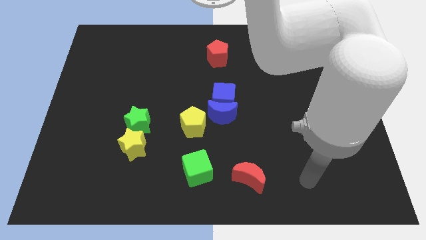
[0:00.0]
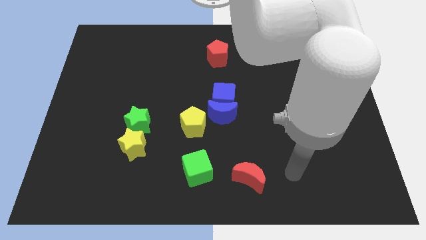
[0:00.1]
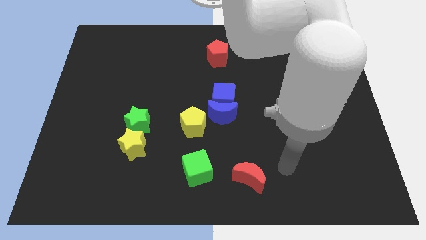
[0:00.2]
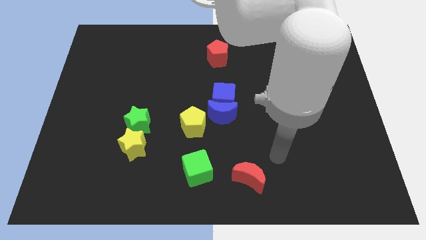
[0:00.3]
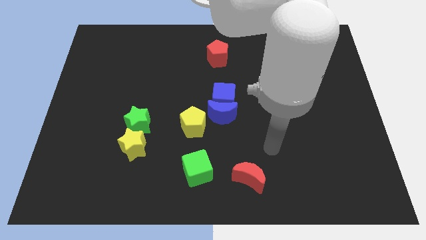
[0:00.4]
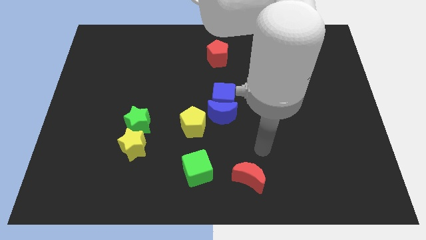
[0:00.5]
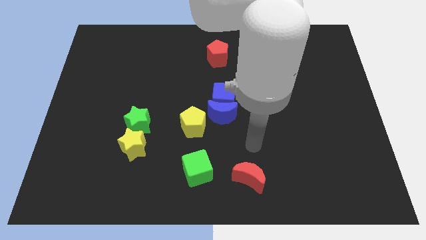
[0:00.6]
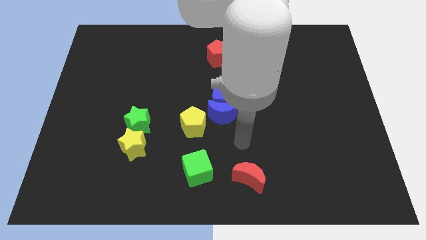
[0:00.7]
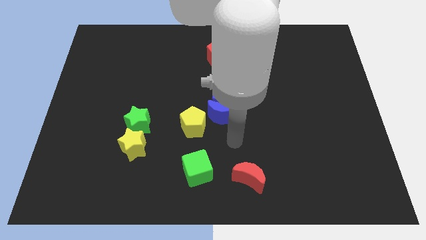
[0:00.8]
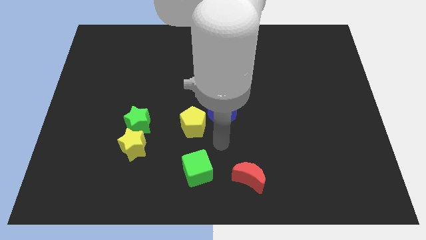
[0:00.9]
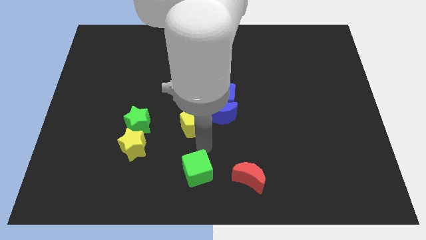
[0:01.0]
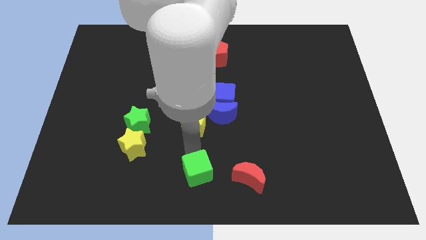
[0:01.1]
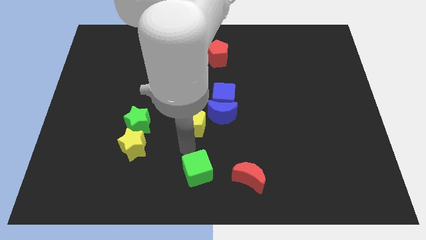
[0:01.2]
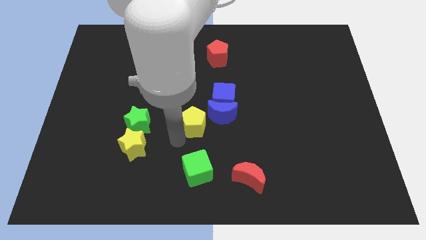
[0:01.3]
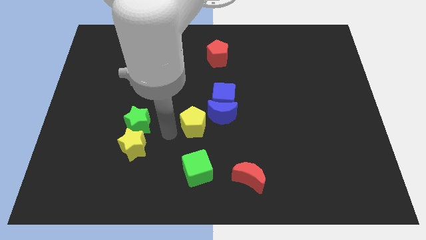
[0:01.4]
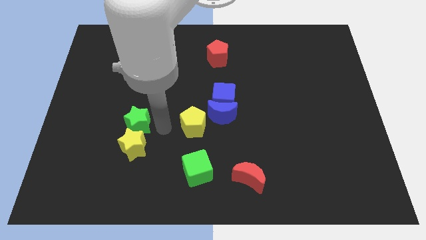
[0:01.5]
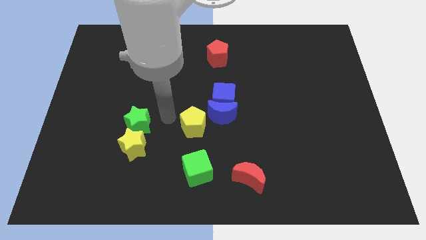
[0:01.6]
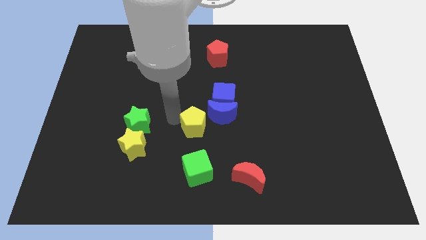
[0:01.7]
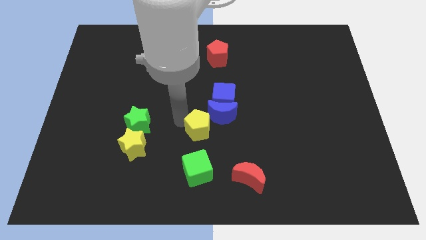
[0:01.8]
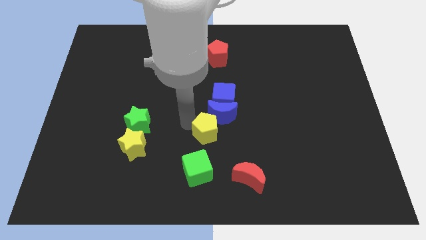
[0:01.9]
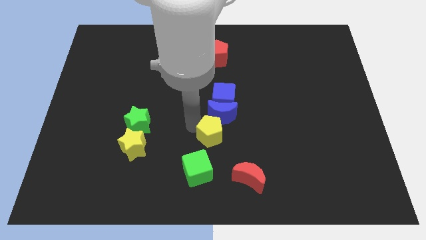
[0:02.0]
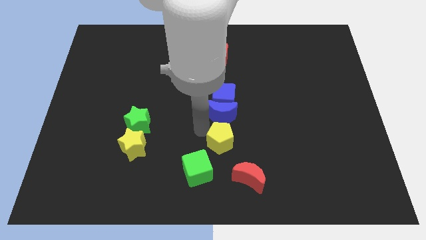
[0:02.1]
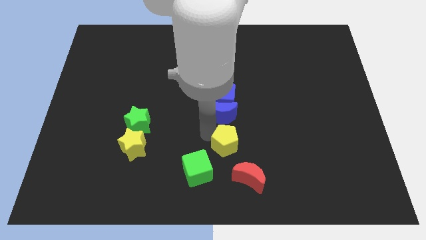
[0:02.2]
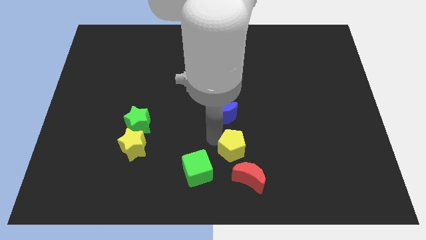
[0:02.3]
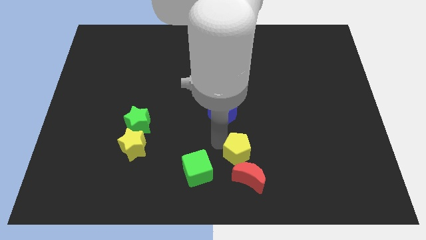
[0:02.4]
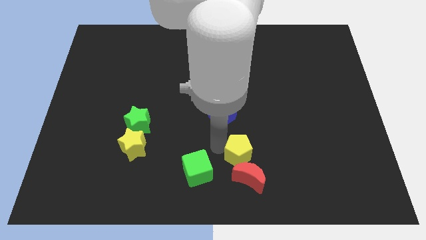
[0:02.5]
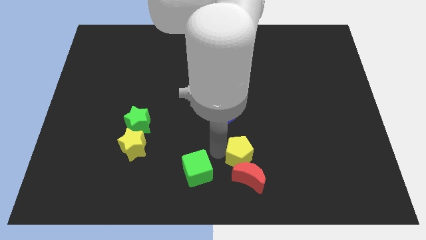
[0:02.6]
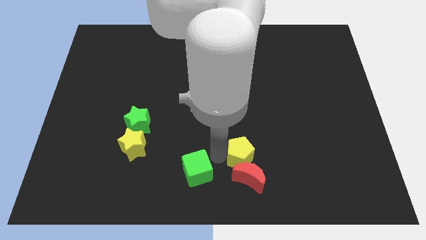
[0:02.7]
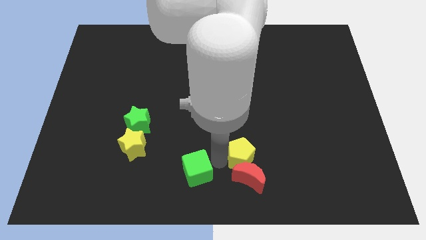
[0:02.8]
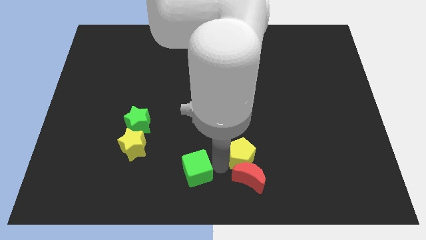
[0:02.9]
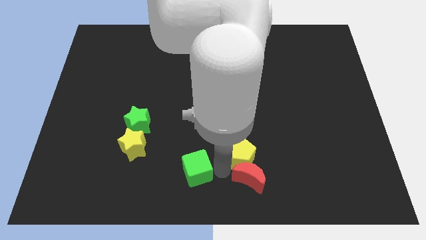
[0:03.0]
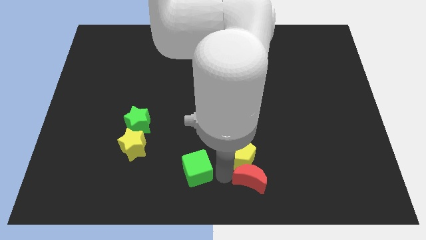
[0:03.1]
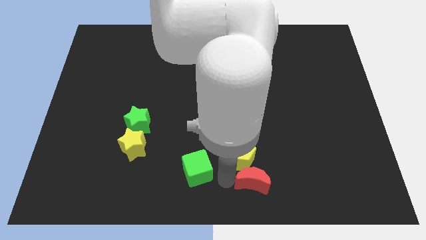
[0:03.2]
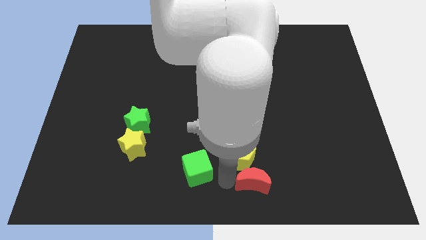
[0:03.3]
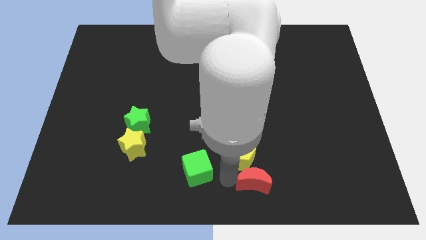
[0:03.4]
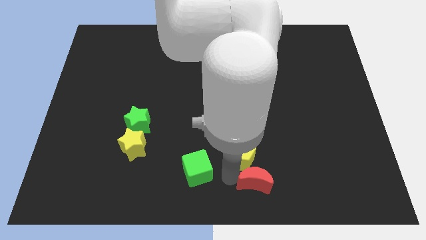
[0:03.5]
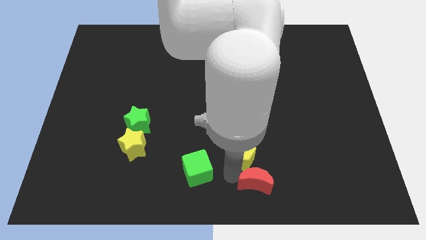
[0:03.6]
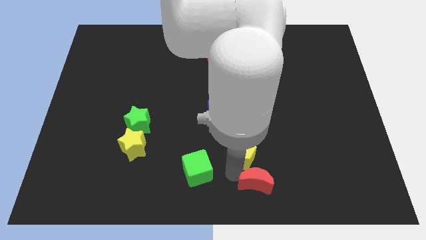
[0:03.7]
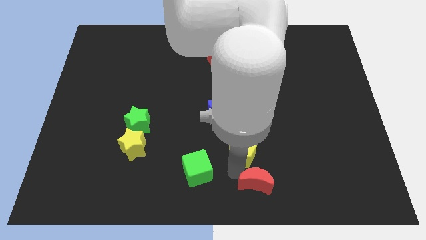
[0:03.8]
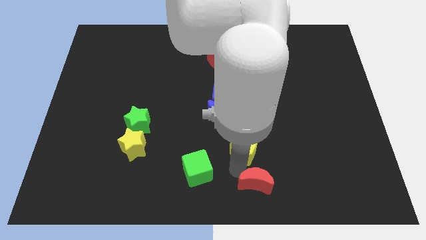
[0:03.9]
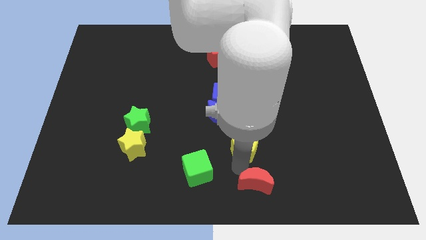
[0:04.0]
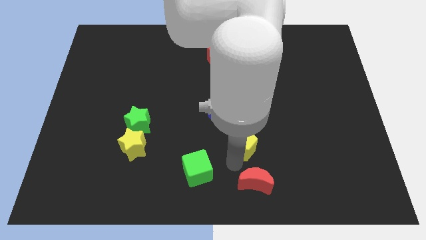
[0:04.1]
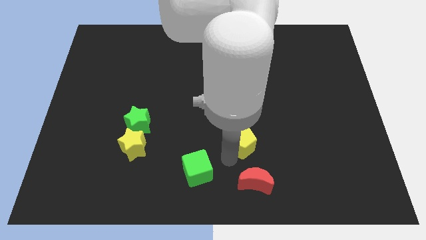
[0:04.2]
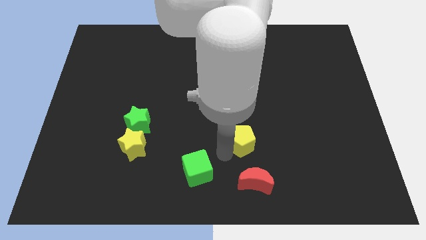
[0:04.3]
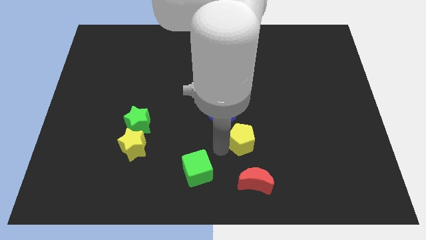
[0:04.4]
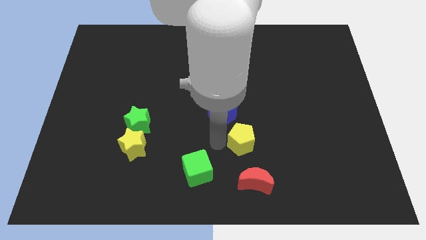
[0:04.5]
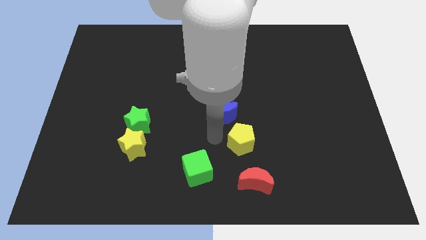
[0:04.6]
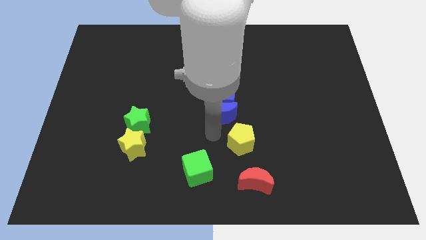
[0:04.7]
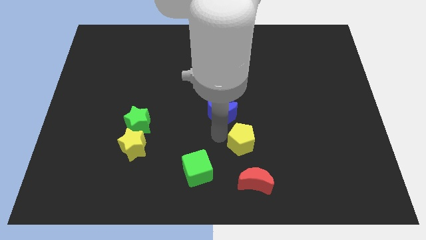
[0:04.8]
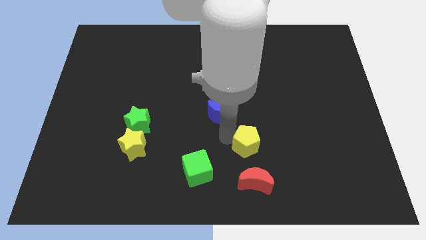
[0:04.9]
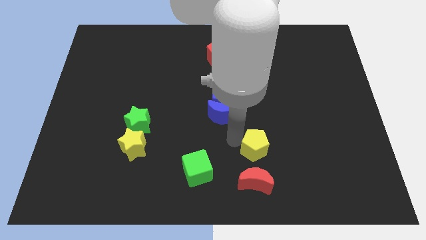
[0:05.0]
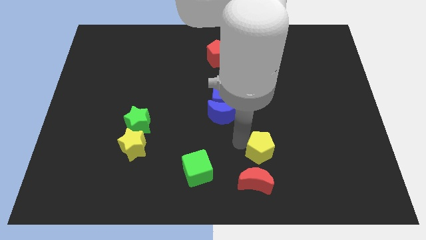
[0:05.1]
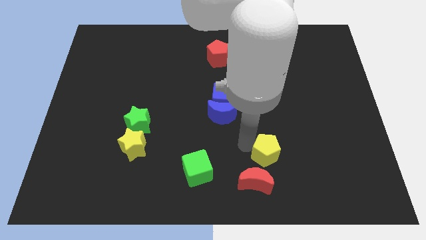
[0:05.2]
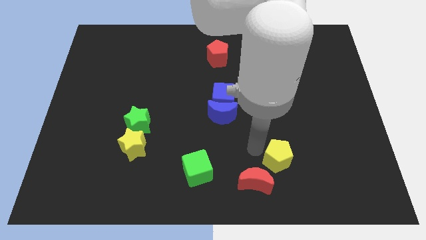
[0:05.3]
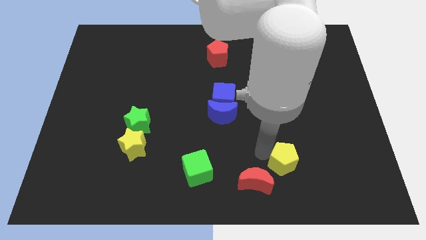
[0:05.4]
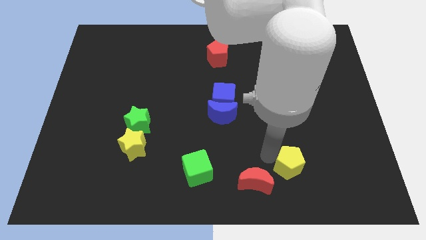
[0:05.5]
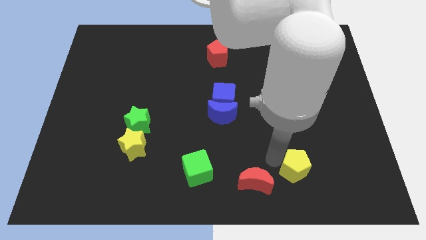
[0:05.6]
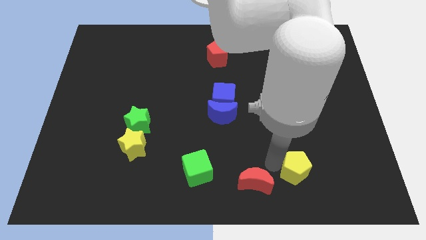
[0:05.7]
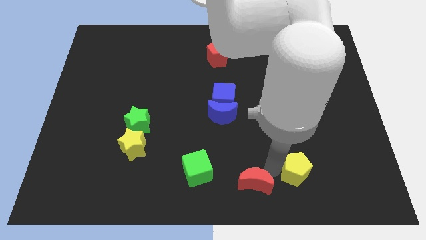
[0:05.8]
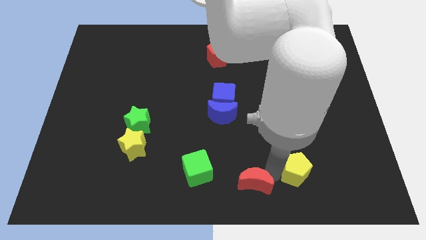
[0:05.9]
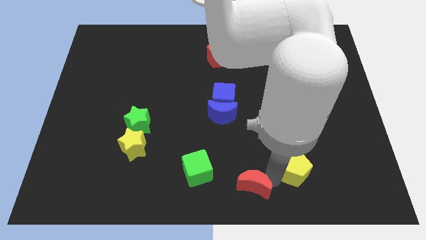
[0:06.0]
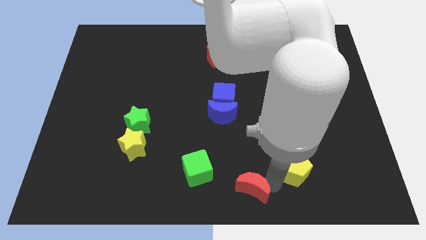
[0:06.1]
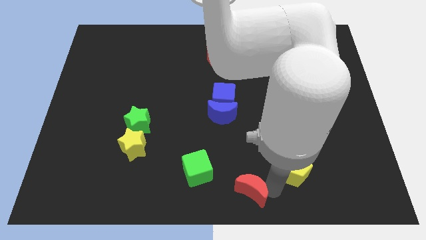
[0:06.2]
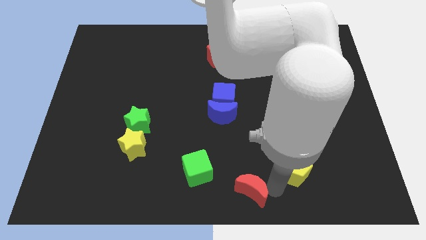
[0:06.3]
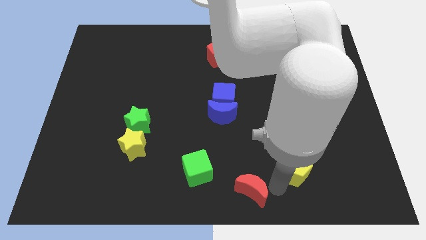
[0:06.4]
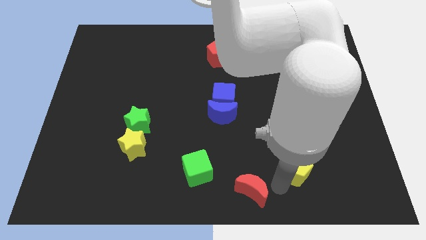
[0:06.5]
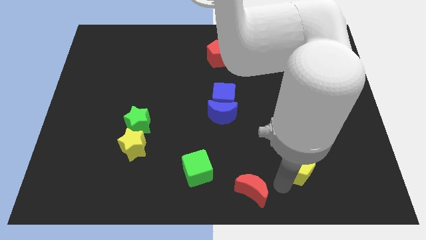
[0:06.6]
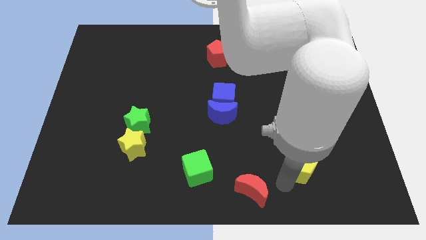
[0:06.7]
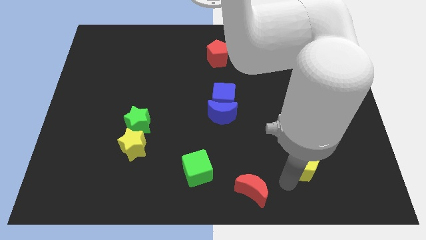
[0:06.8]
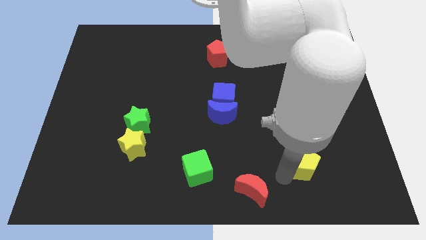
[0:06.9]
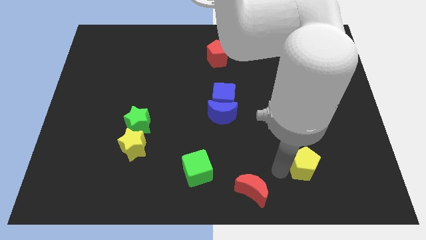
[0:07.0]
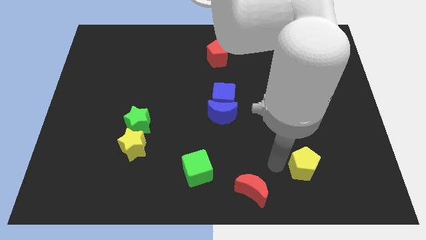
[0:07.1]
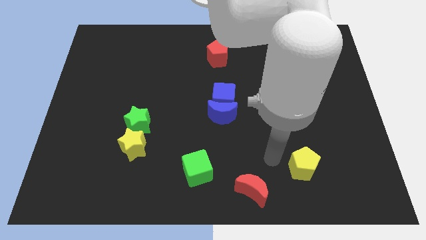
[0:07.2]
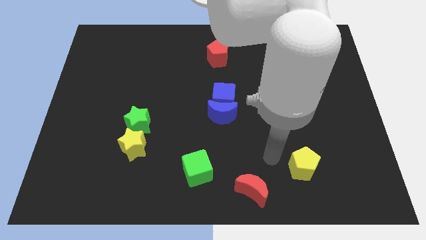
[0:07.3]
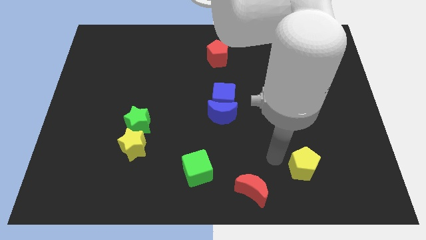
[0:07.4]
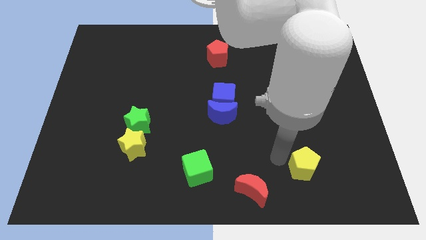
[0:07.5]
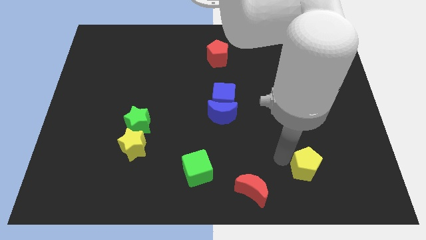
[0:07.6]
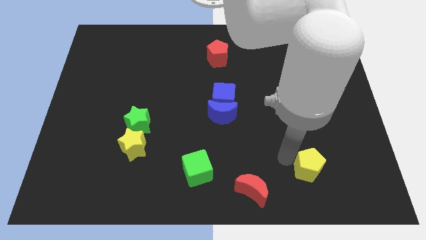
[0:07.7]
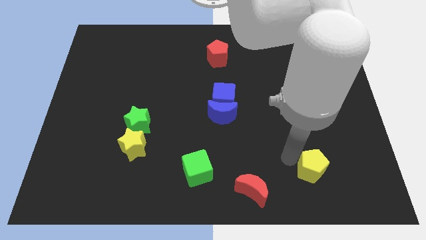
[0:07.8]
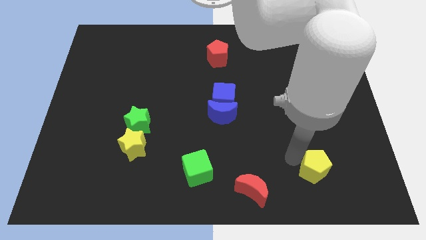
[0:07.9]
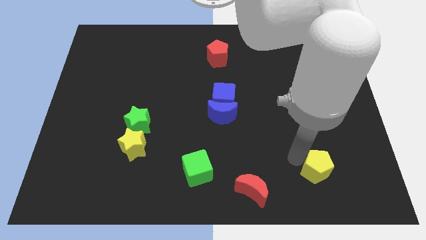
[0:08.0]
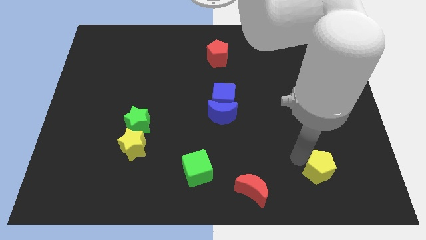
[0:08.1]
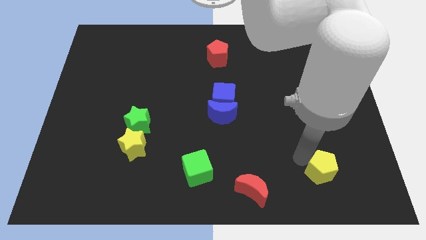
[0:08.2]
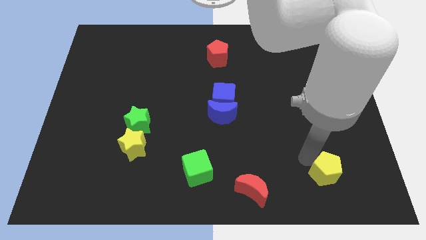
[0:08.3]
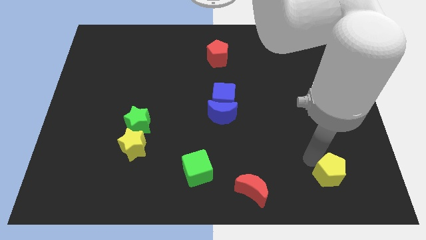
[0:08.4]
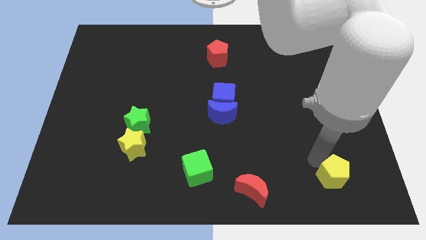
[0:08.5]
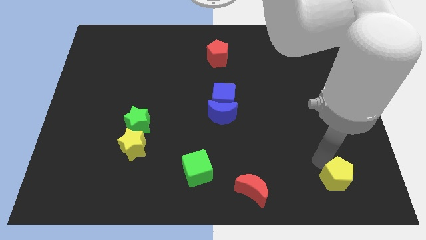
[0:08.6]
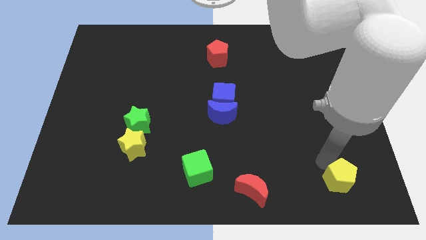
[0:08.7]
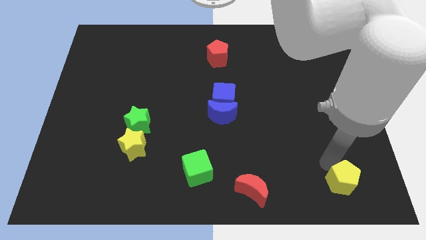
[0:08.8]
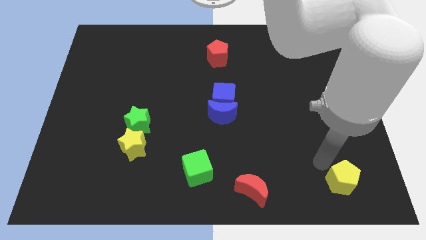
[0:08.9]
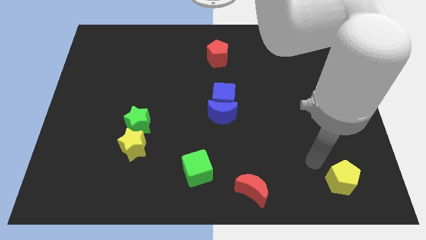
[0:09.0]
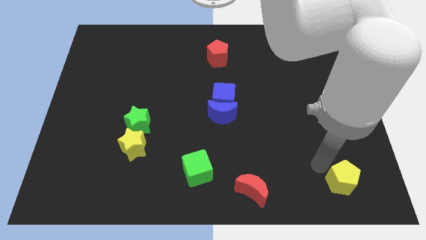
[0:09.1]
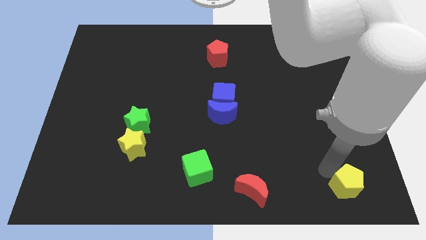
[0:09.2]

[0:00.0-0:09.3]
move the yellow pentagon to the bottom right of the board
